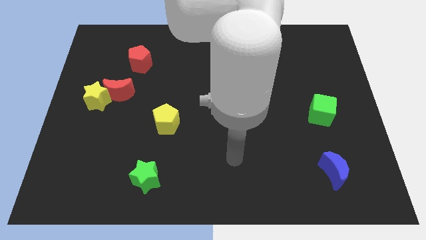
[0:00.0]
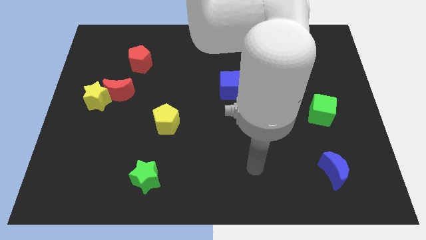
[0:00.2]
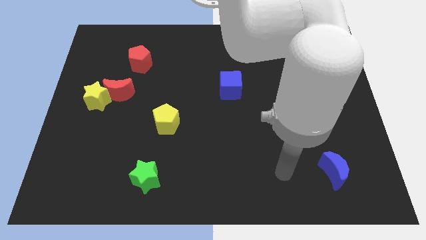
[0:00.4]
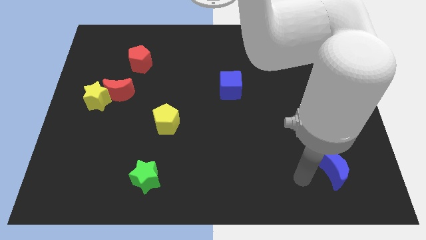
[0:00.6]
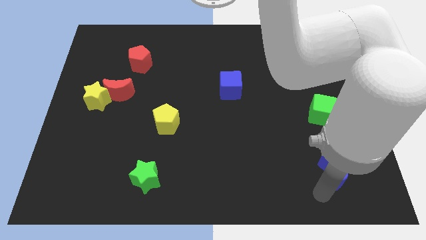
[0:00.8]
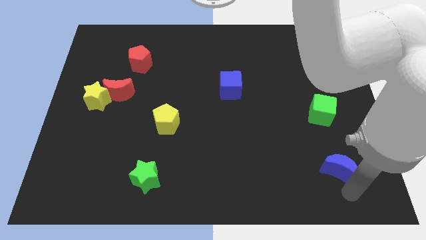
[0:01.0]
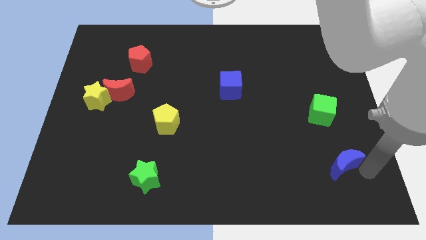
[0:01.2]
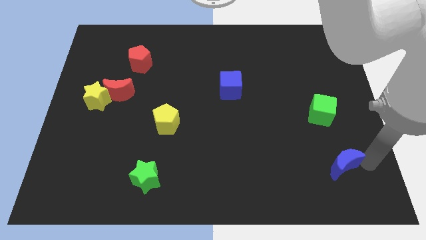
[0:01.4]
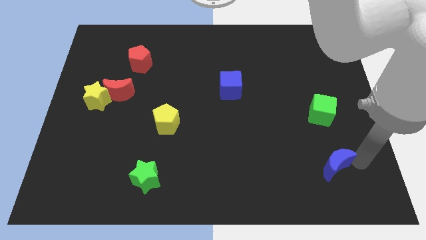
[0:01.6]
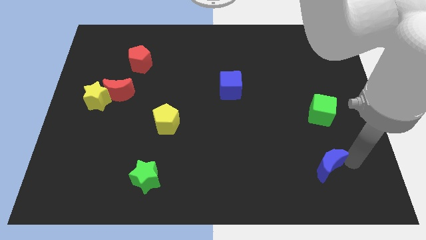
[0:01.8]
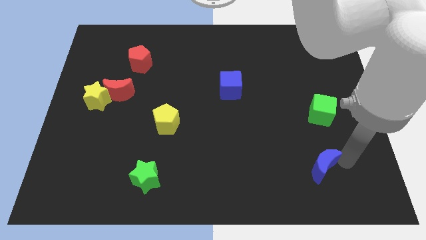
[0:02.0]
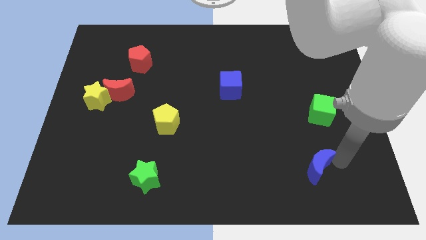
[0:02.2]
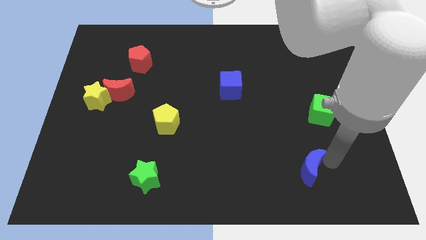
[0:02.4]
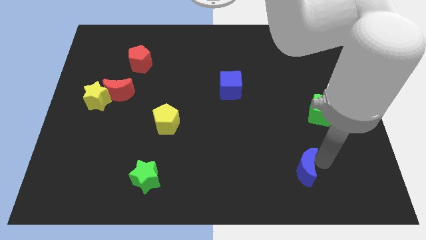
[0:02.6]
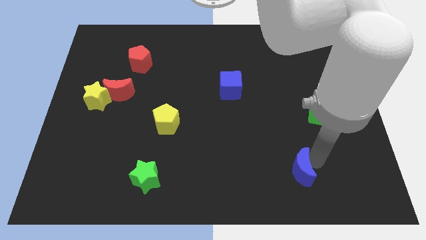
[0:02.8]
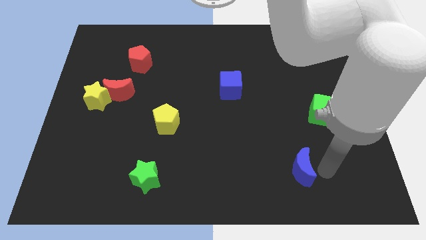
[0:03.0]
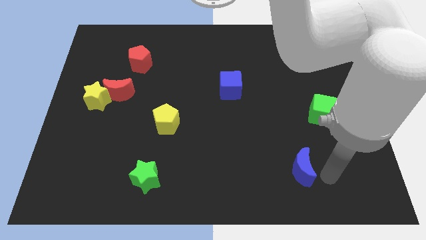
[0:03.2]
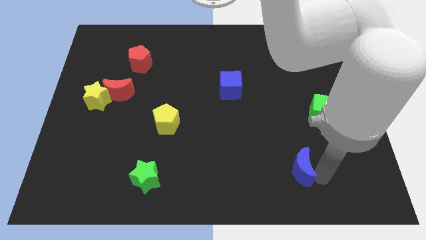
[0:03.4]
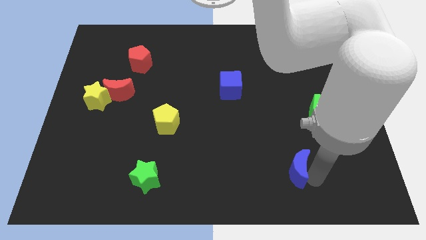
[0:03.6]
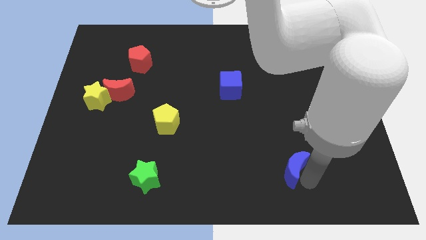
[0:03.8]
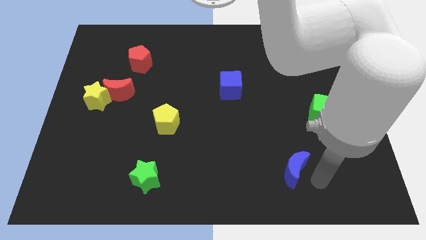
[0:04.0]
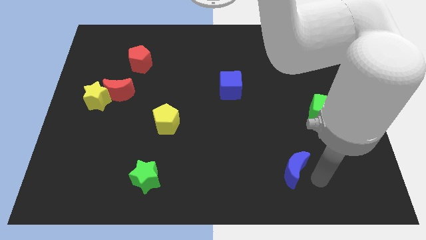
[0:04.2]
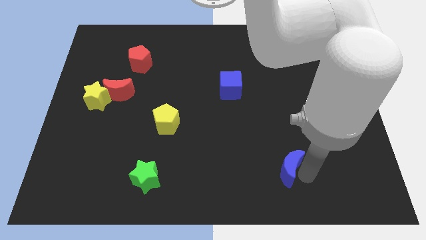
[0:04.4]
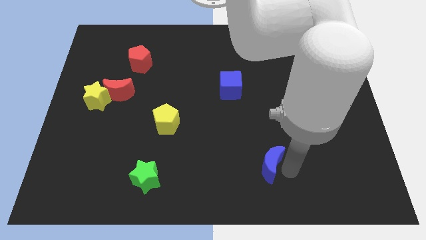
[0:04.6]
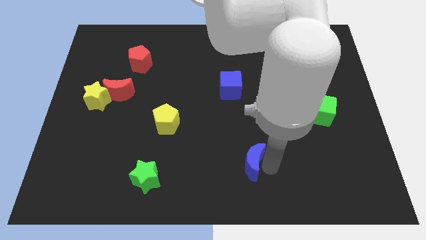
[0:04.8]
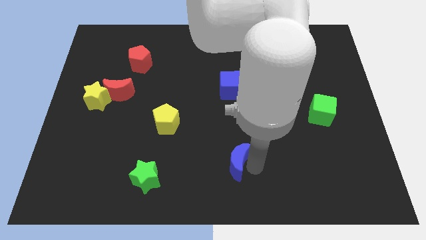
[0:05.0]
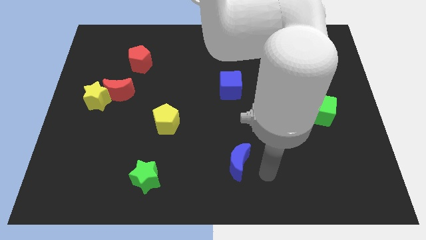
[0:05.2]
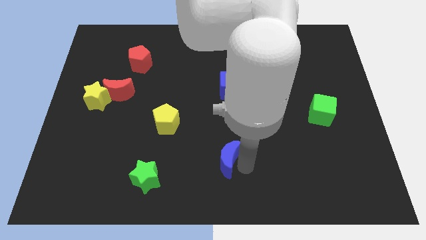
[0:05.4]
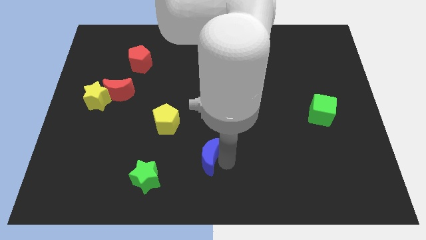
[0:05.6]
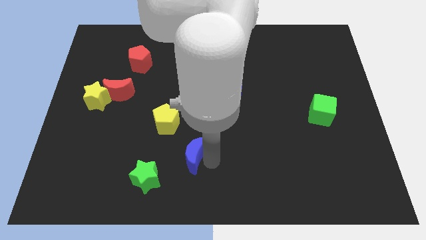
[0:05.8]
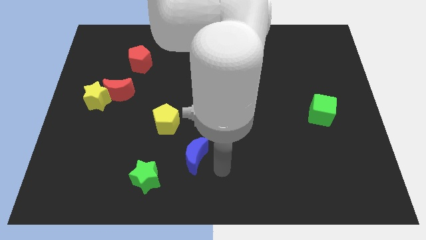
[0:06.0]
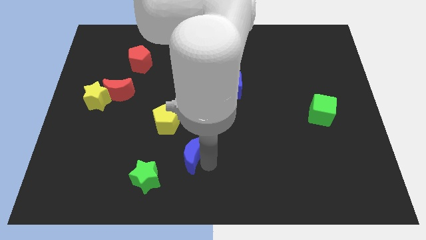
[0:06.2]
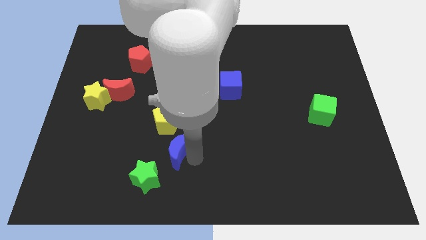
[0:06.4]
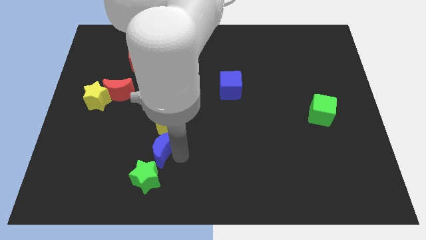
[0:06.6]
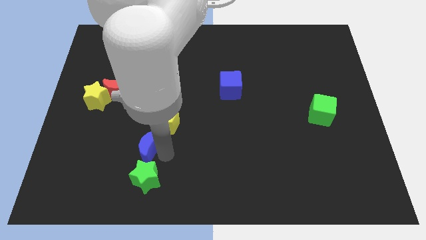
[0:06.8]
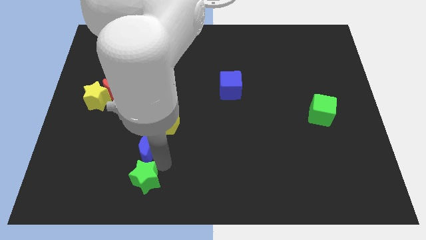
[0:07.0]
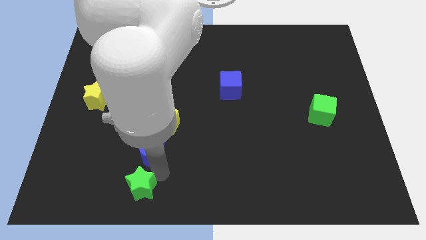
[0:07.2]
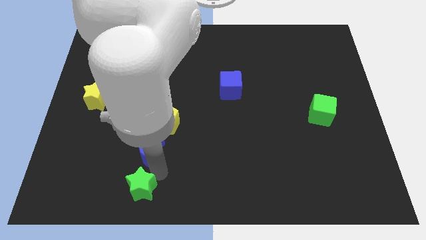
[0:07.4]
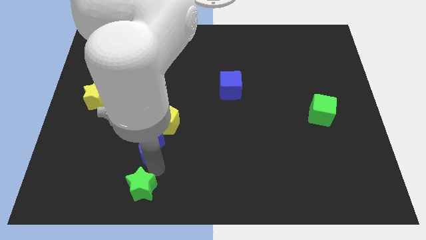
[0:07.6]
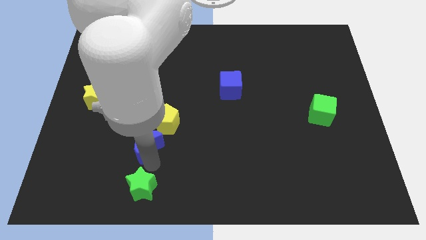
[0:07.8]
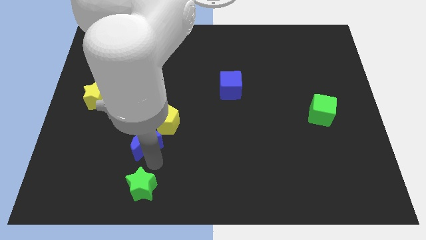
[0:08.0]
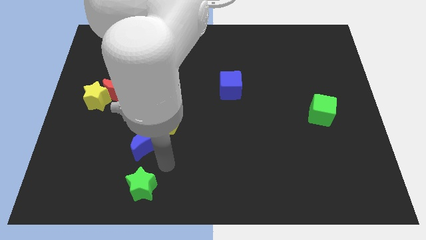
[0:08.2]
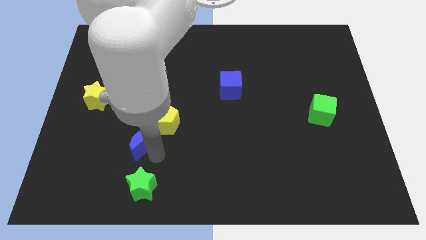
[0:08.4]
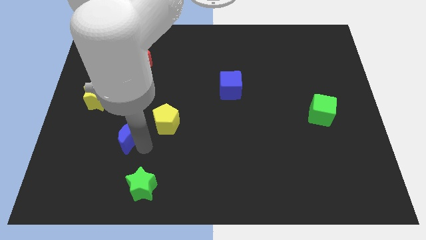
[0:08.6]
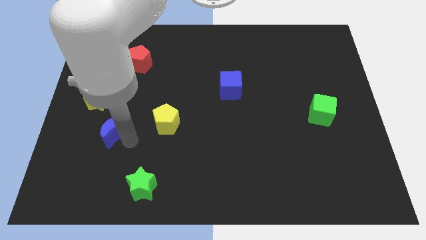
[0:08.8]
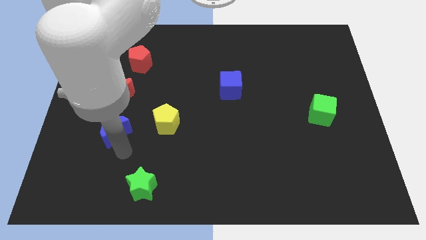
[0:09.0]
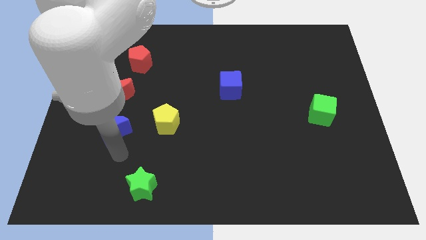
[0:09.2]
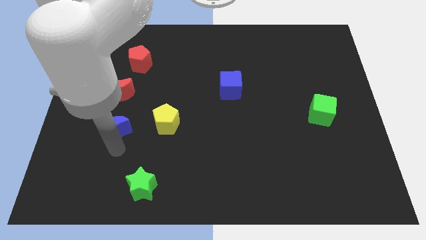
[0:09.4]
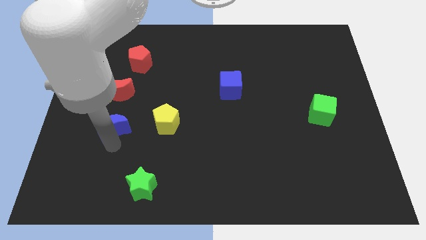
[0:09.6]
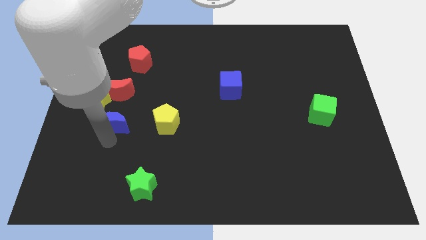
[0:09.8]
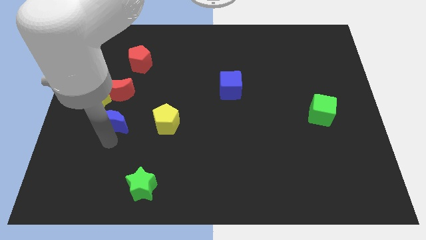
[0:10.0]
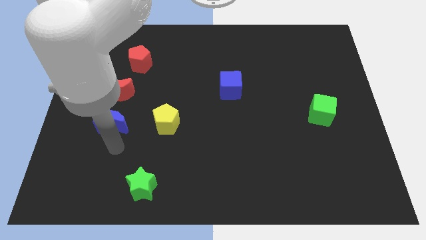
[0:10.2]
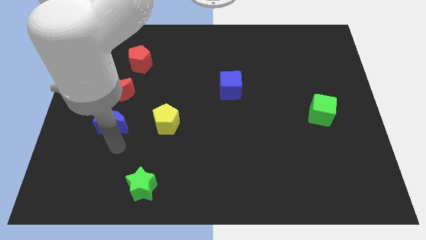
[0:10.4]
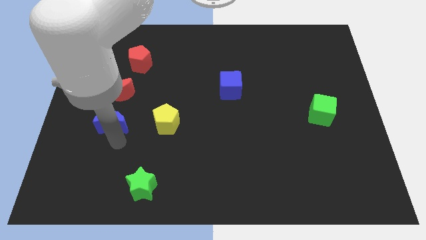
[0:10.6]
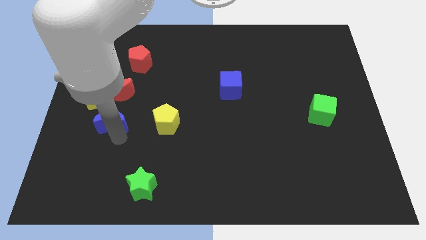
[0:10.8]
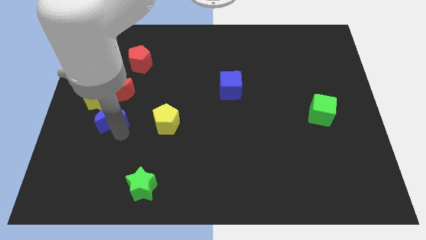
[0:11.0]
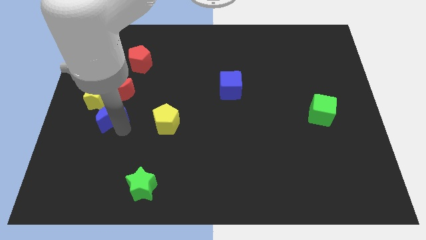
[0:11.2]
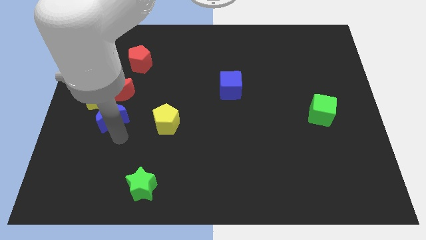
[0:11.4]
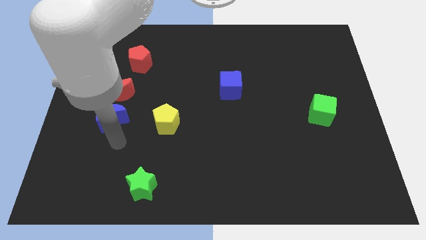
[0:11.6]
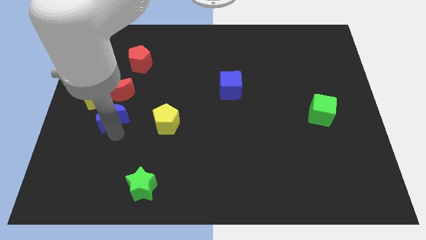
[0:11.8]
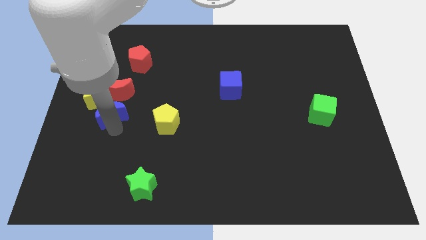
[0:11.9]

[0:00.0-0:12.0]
slide the blue moon towards the yellow star

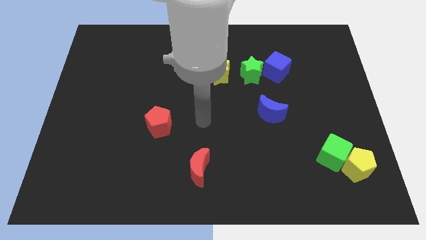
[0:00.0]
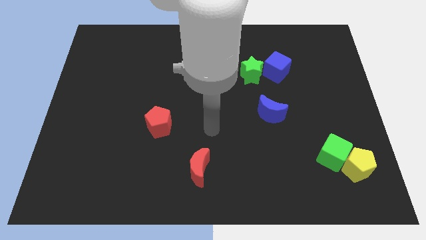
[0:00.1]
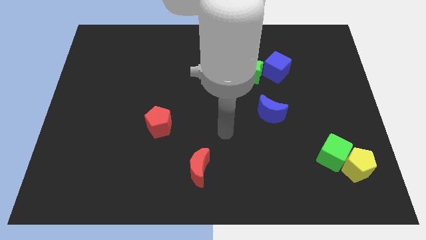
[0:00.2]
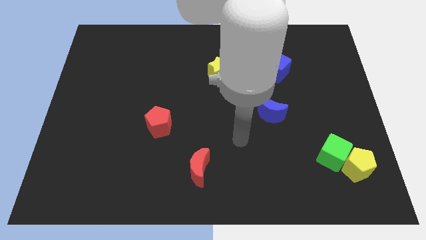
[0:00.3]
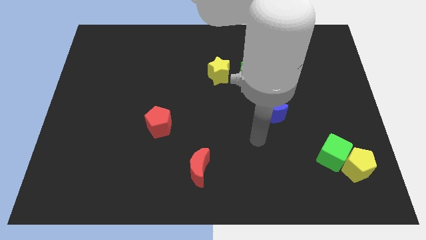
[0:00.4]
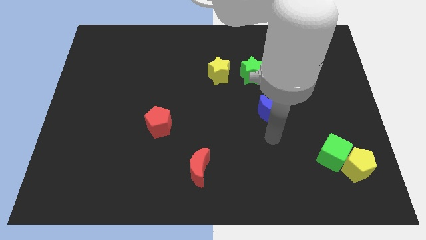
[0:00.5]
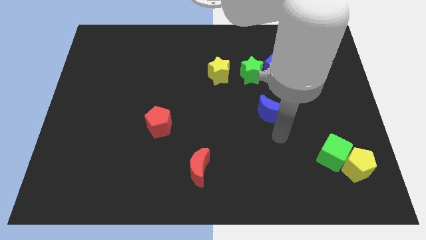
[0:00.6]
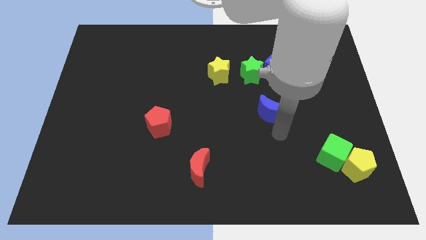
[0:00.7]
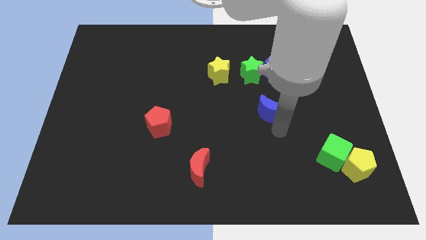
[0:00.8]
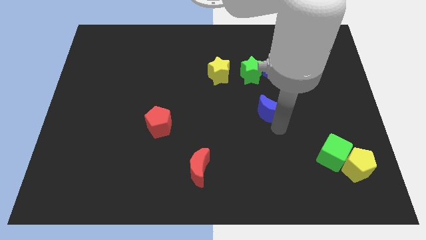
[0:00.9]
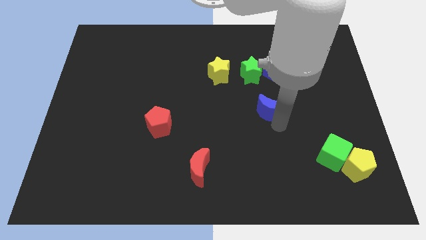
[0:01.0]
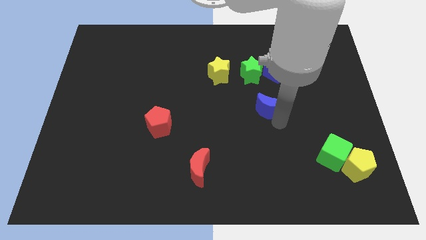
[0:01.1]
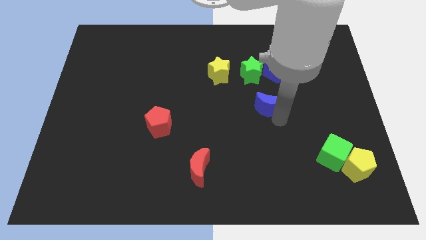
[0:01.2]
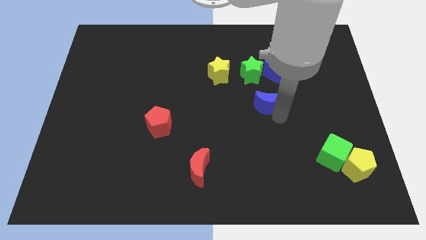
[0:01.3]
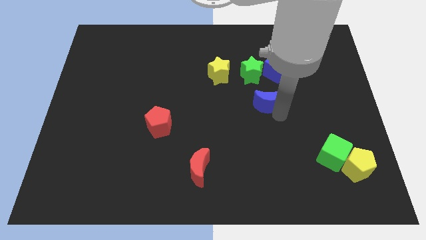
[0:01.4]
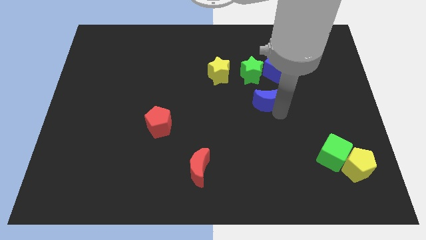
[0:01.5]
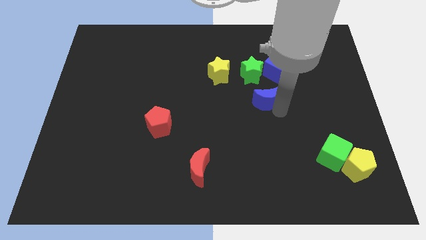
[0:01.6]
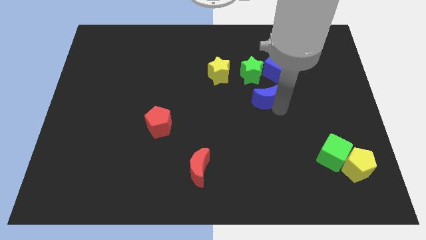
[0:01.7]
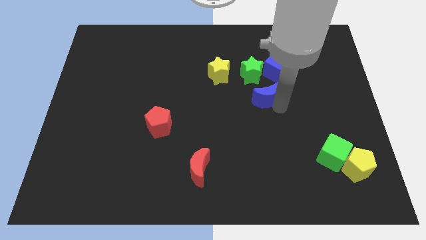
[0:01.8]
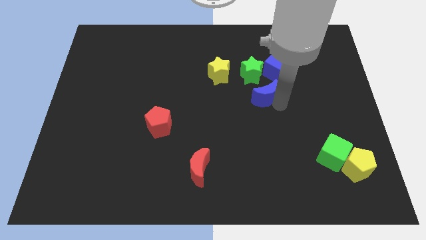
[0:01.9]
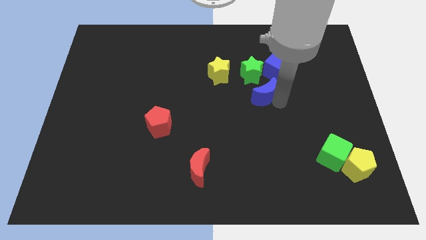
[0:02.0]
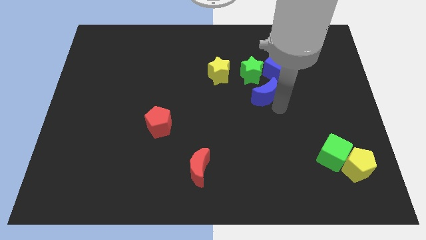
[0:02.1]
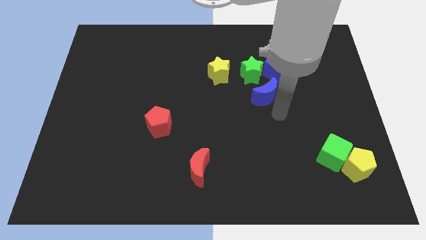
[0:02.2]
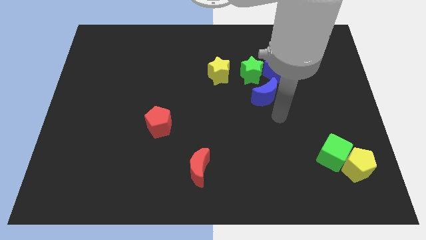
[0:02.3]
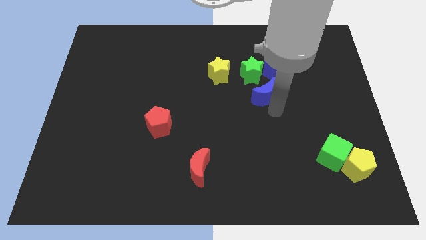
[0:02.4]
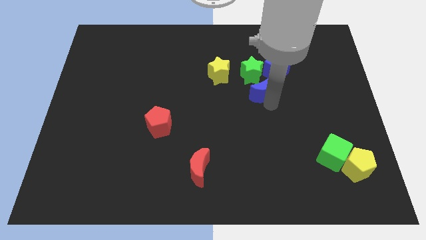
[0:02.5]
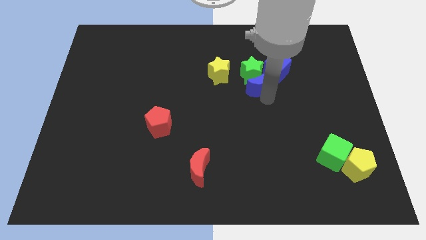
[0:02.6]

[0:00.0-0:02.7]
push the blue moon close to the green star
